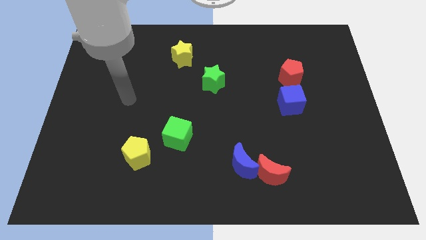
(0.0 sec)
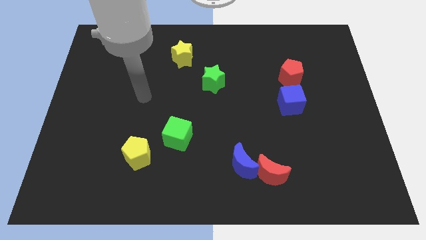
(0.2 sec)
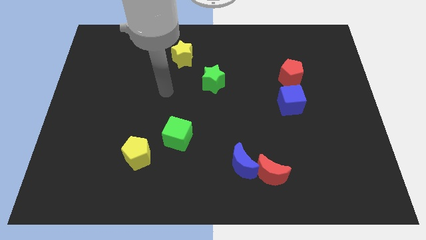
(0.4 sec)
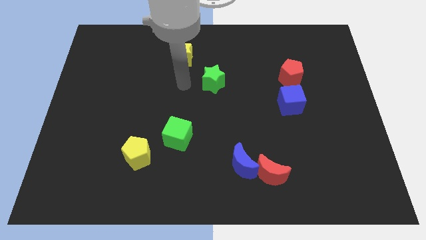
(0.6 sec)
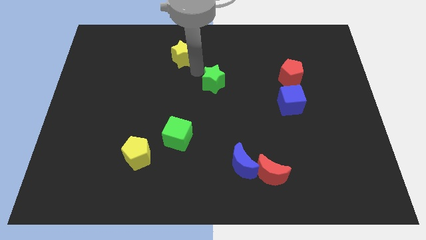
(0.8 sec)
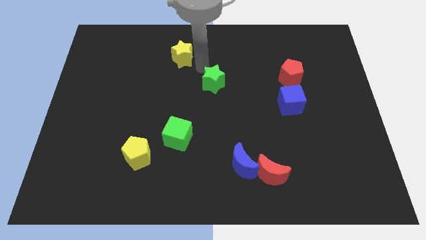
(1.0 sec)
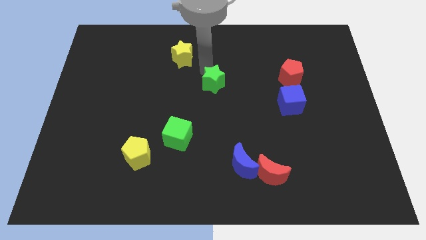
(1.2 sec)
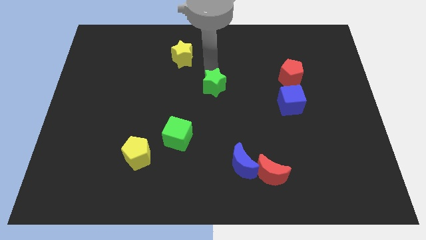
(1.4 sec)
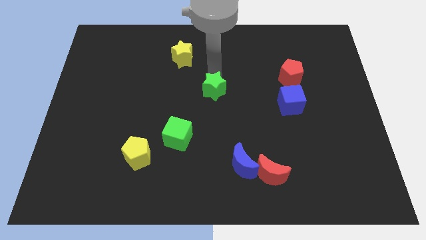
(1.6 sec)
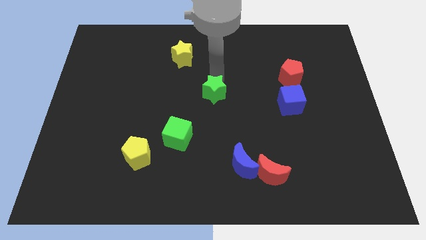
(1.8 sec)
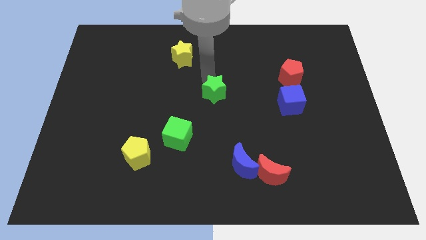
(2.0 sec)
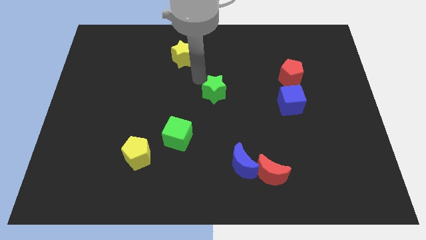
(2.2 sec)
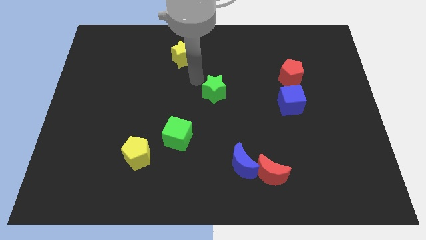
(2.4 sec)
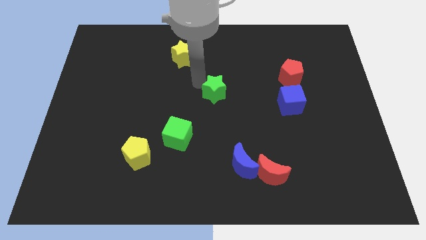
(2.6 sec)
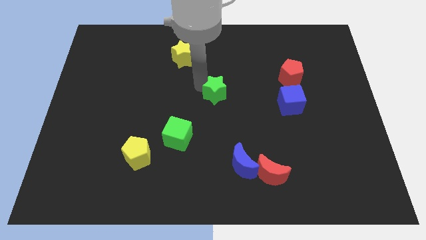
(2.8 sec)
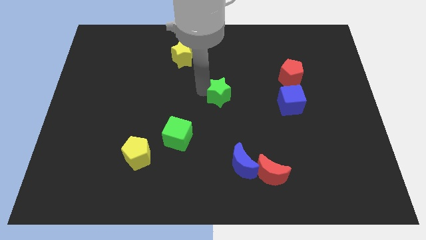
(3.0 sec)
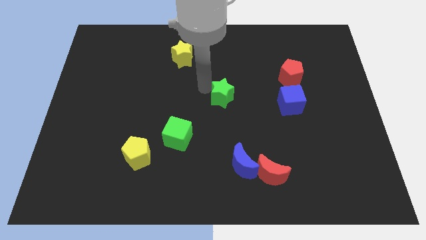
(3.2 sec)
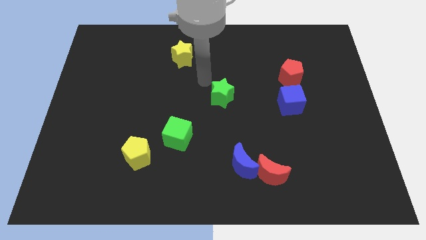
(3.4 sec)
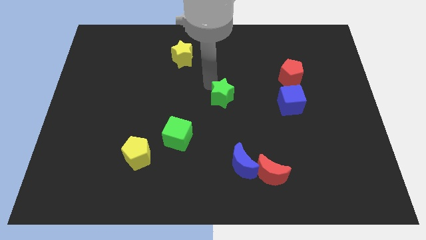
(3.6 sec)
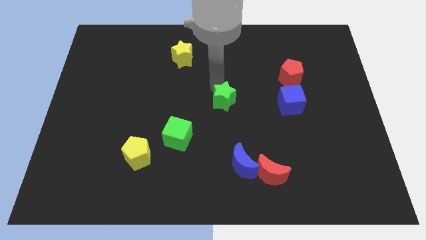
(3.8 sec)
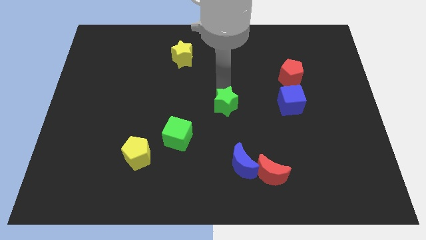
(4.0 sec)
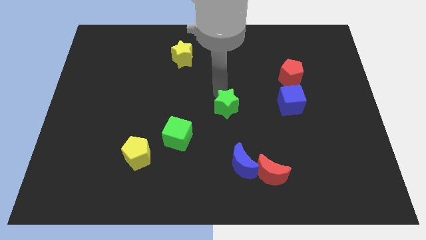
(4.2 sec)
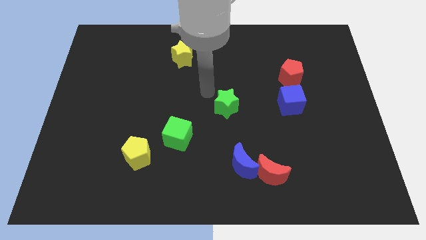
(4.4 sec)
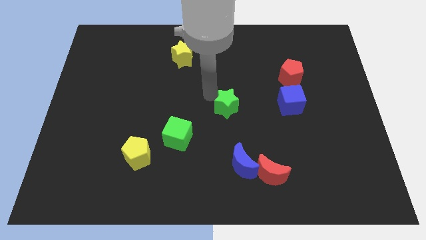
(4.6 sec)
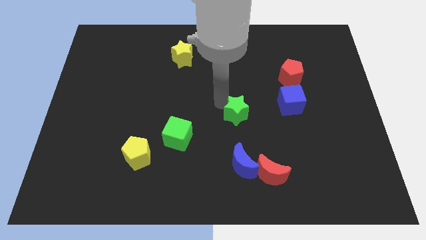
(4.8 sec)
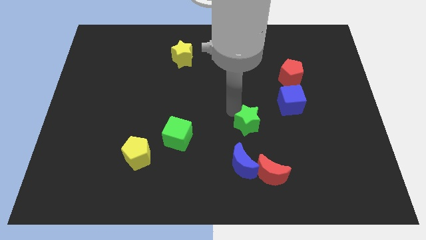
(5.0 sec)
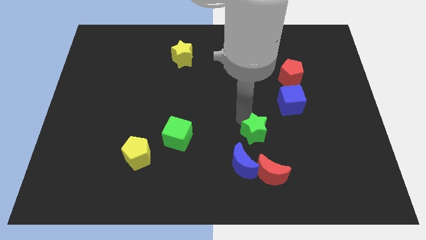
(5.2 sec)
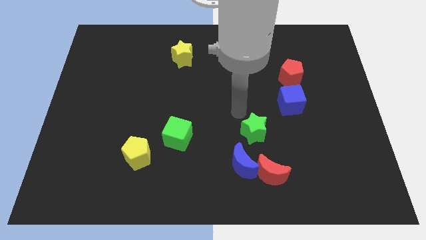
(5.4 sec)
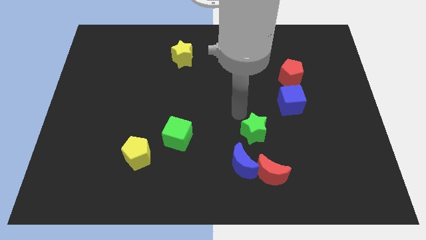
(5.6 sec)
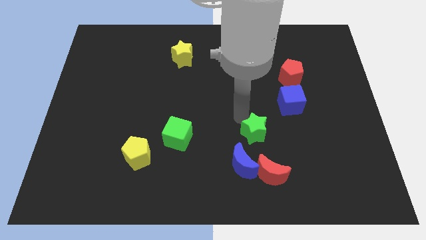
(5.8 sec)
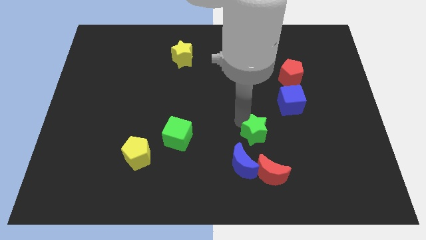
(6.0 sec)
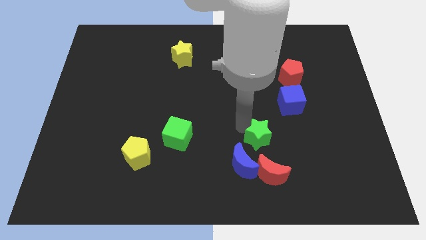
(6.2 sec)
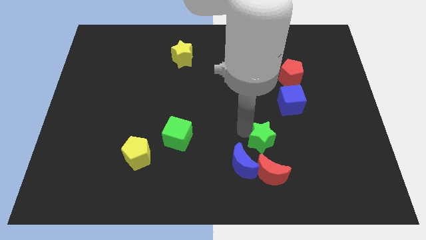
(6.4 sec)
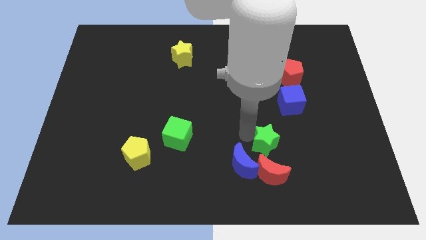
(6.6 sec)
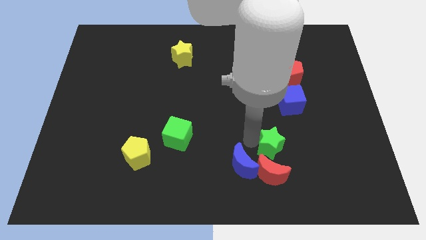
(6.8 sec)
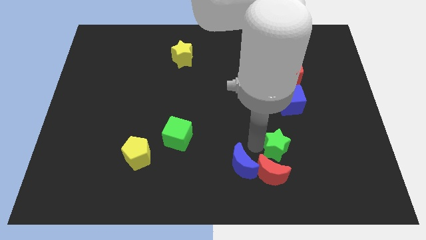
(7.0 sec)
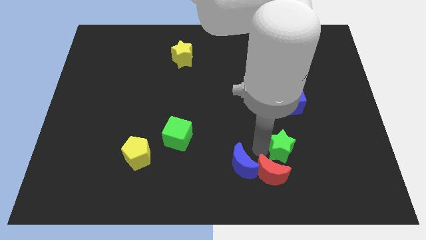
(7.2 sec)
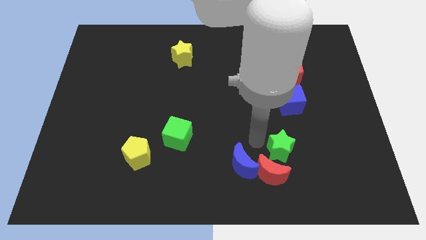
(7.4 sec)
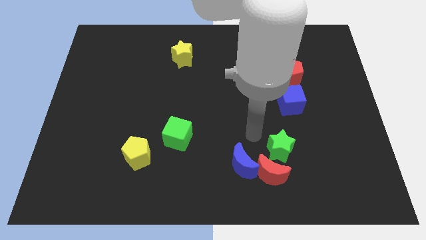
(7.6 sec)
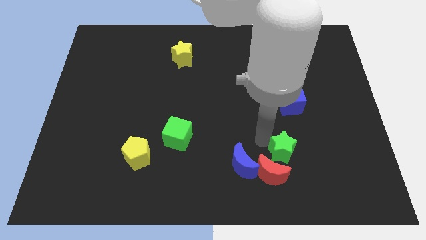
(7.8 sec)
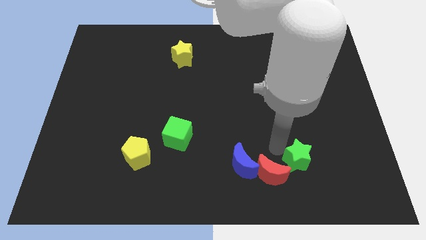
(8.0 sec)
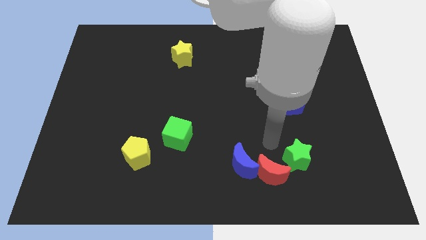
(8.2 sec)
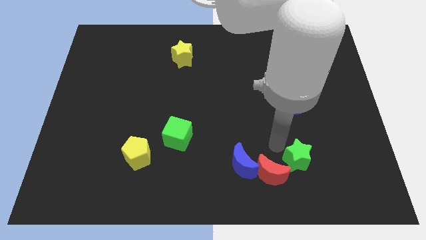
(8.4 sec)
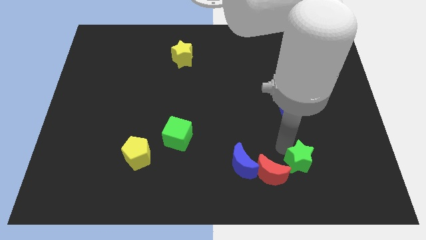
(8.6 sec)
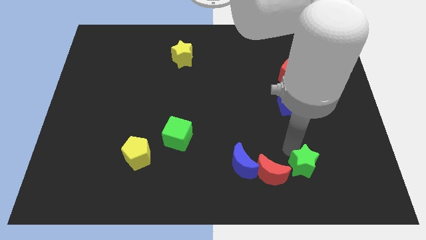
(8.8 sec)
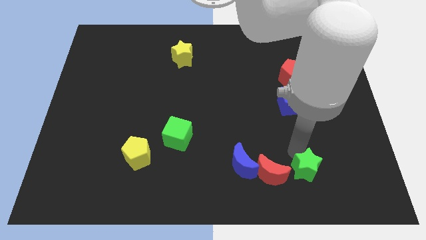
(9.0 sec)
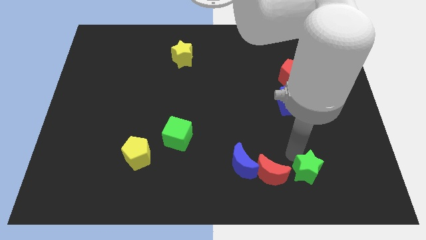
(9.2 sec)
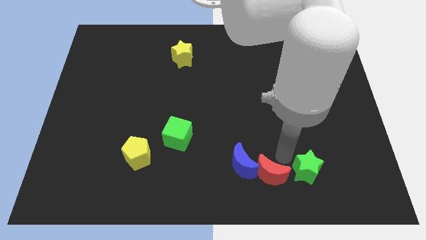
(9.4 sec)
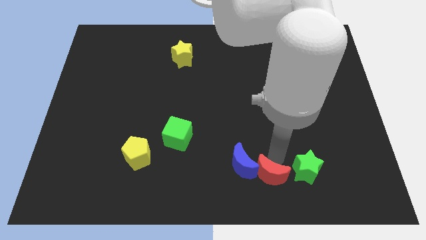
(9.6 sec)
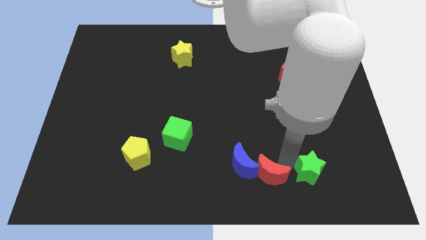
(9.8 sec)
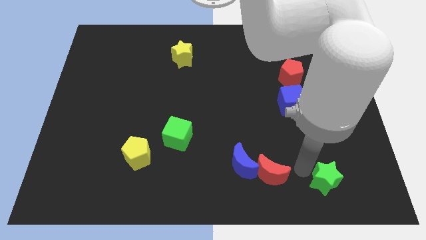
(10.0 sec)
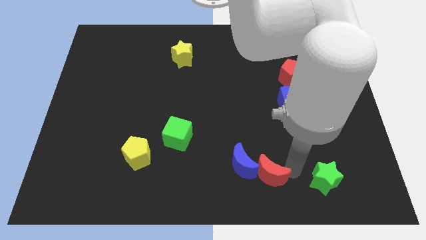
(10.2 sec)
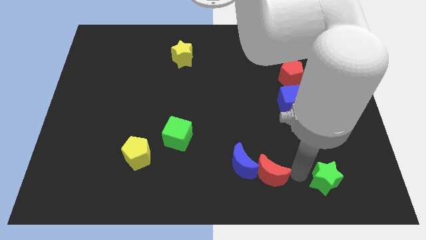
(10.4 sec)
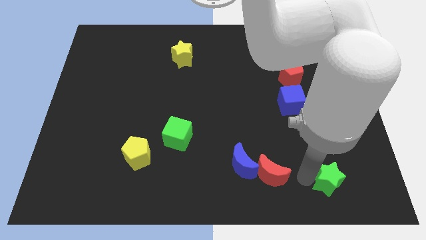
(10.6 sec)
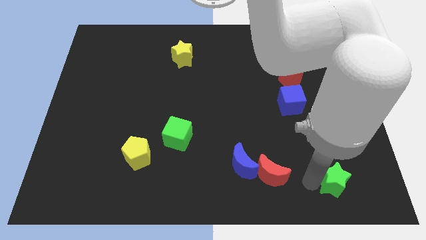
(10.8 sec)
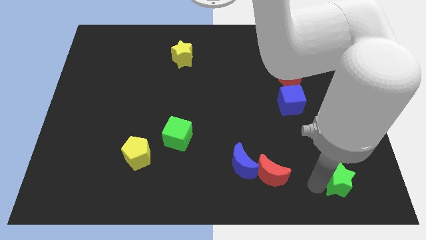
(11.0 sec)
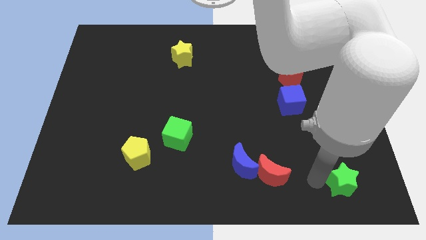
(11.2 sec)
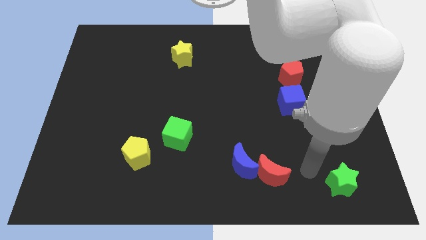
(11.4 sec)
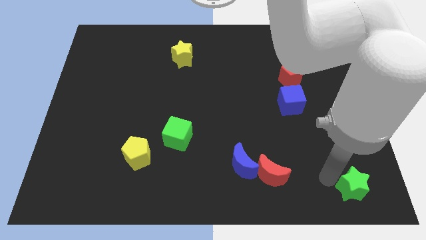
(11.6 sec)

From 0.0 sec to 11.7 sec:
move the green star to the bottom right of the board
